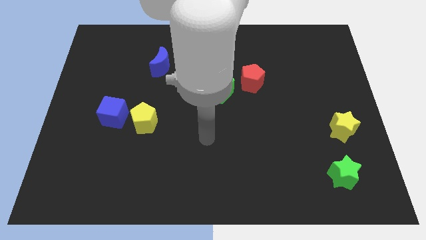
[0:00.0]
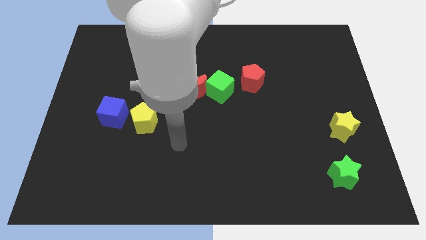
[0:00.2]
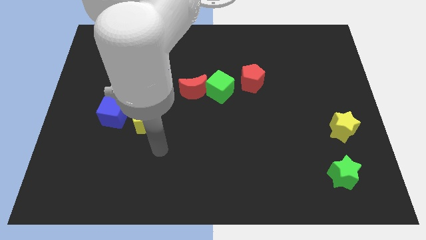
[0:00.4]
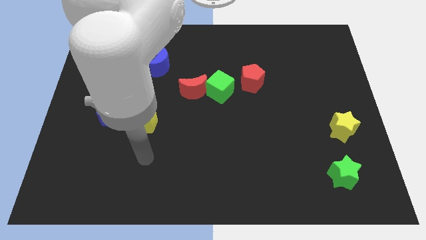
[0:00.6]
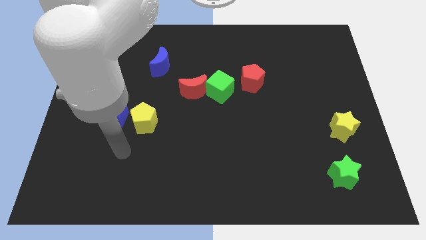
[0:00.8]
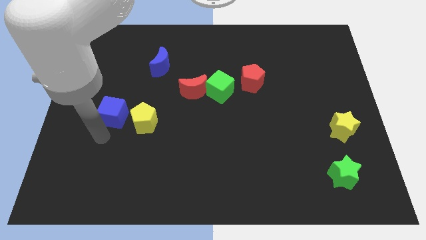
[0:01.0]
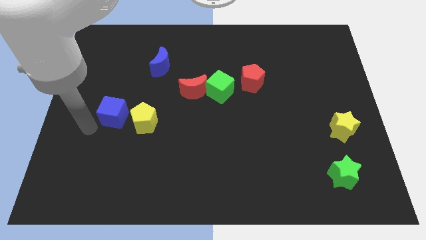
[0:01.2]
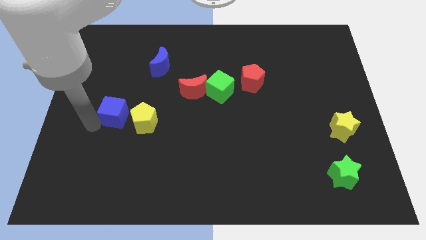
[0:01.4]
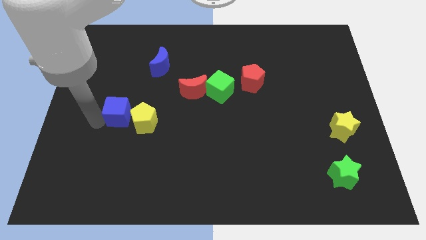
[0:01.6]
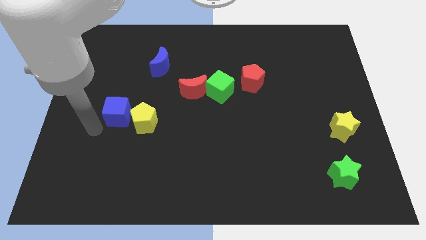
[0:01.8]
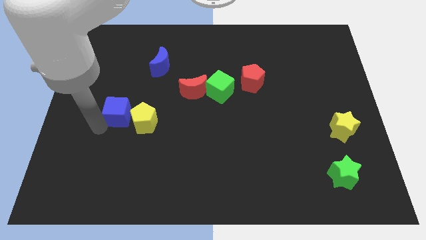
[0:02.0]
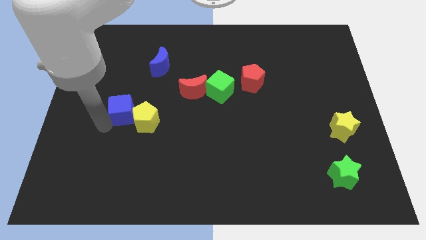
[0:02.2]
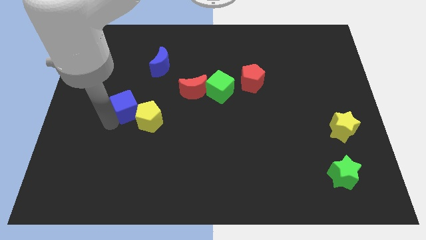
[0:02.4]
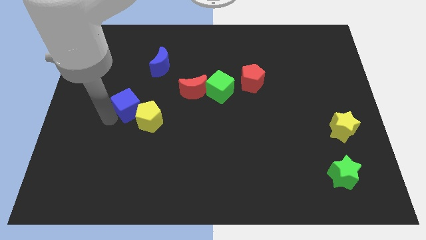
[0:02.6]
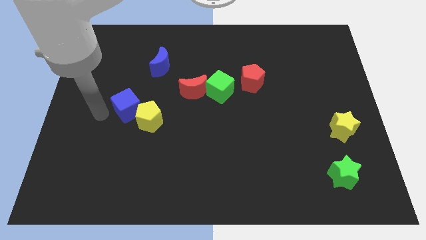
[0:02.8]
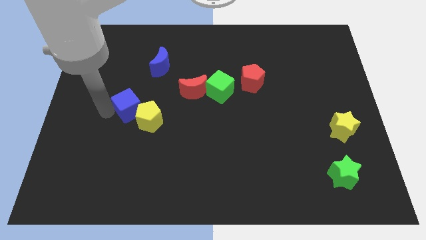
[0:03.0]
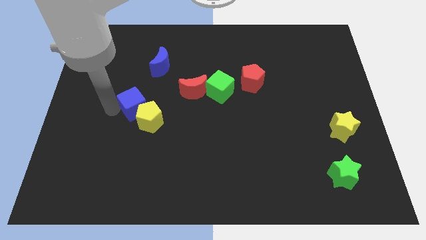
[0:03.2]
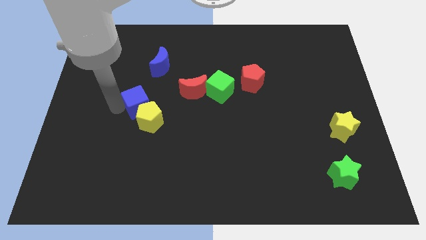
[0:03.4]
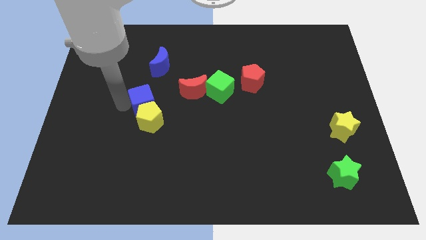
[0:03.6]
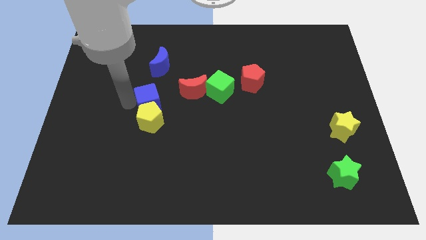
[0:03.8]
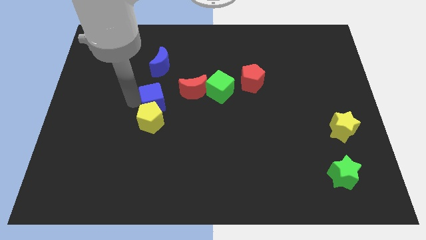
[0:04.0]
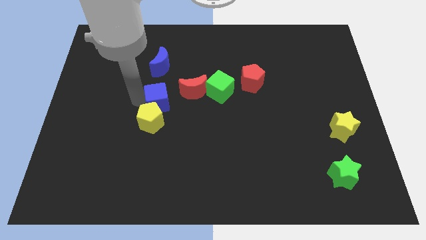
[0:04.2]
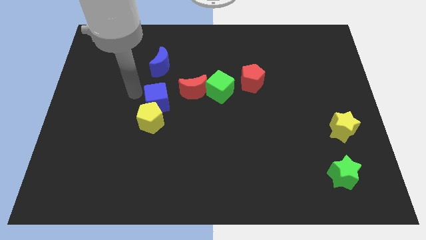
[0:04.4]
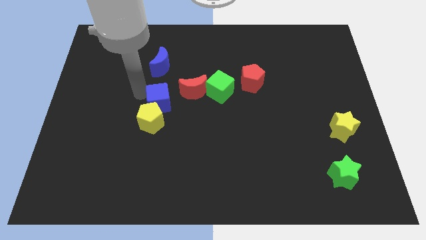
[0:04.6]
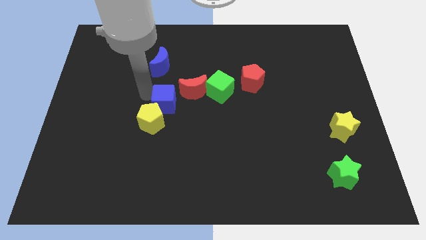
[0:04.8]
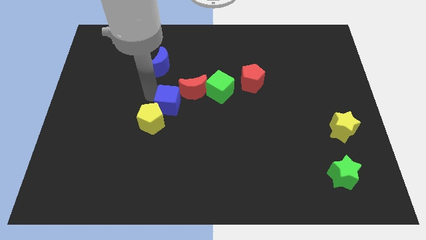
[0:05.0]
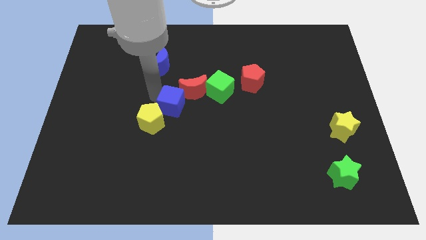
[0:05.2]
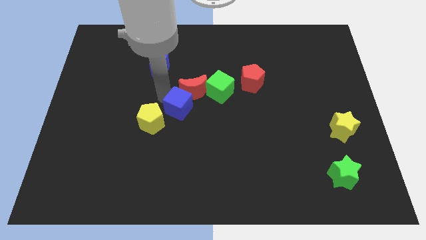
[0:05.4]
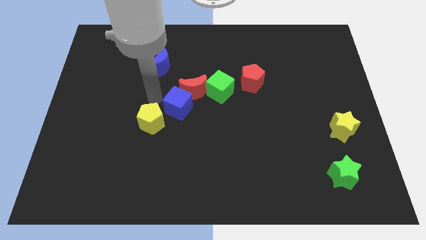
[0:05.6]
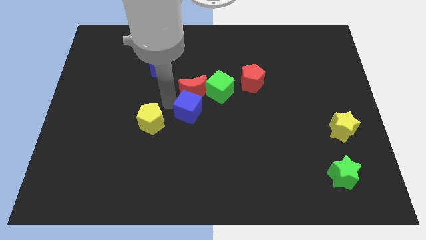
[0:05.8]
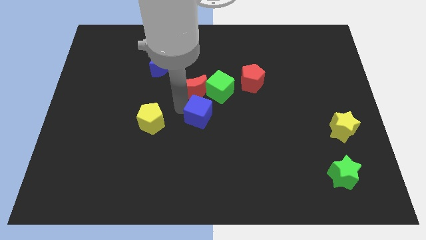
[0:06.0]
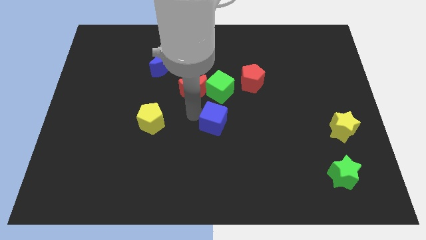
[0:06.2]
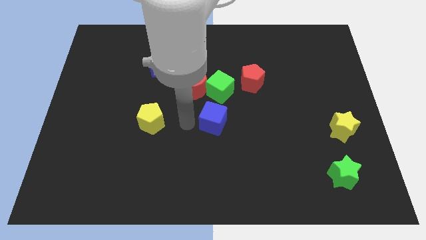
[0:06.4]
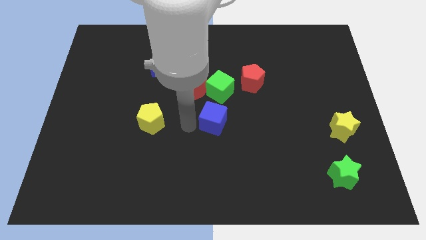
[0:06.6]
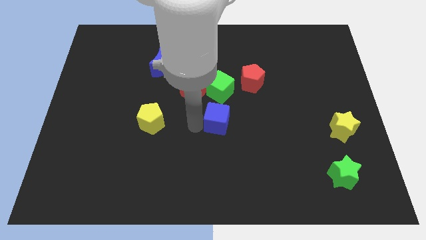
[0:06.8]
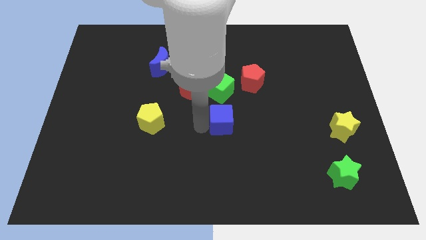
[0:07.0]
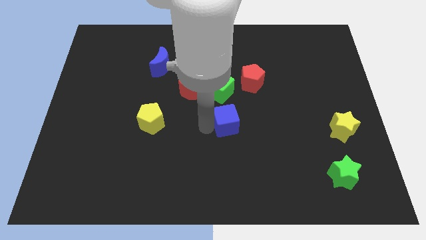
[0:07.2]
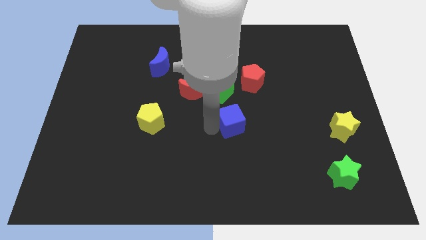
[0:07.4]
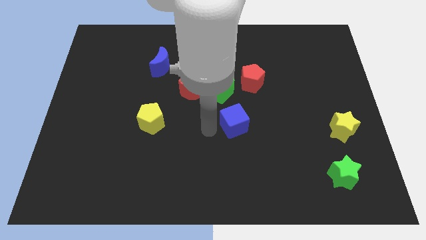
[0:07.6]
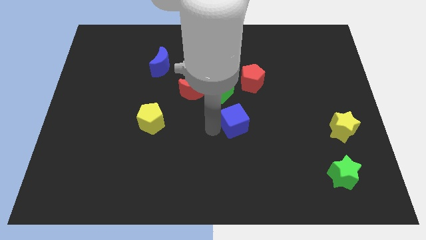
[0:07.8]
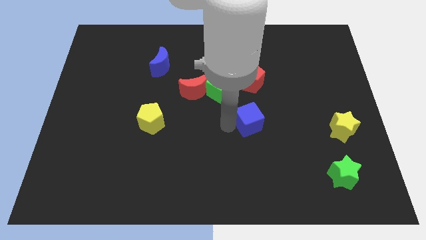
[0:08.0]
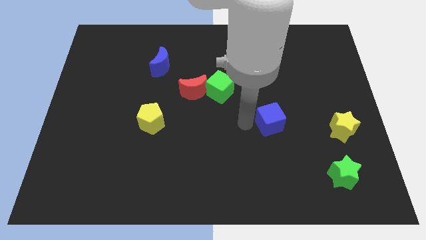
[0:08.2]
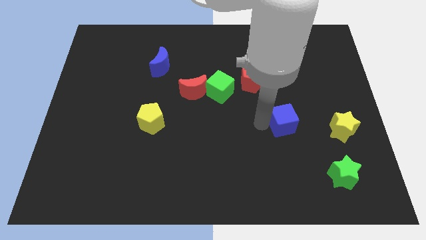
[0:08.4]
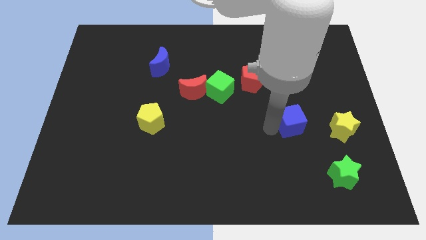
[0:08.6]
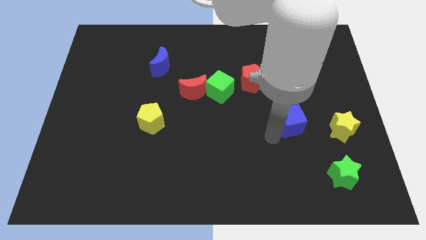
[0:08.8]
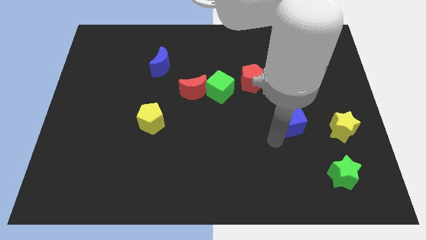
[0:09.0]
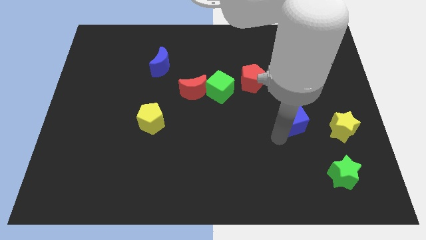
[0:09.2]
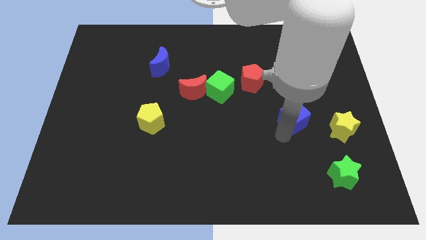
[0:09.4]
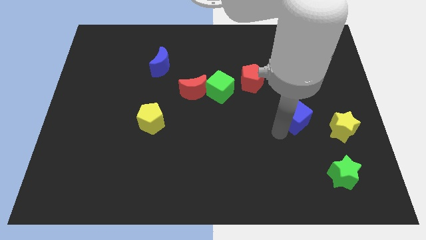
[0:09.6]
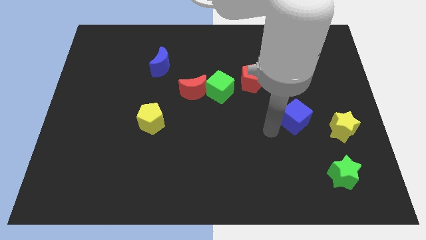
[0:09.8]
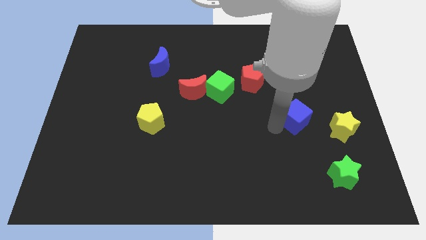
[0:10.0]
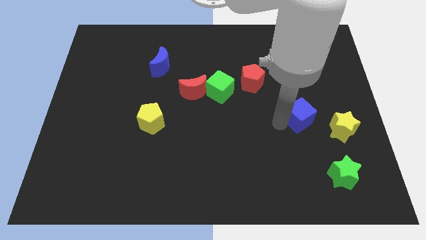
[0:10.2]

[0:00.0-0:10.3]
put the blue cube to the top left side of the yellow star

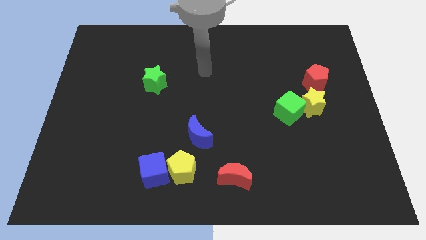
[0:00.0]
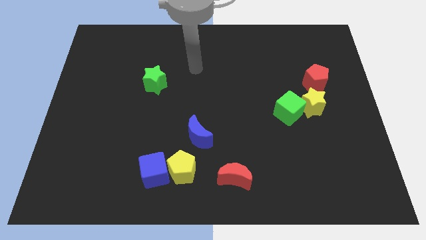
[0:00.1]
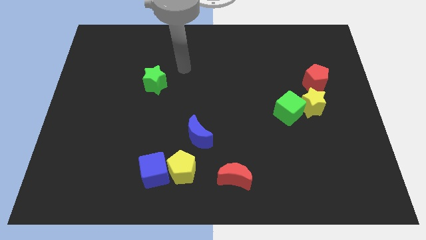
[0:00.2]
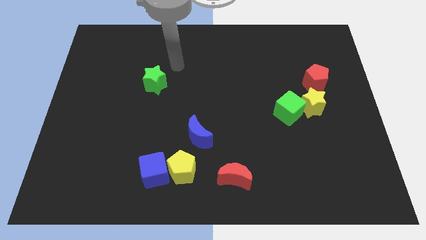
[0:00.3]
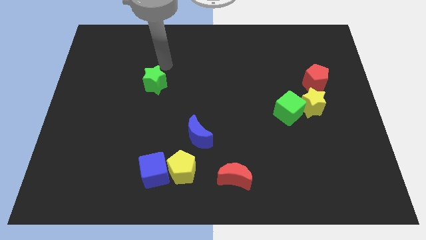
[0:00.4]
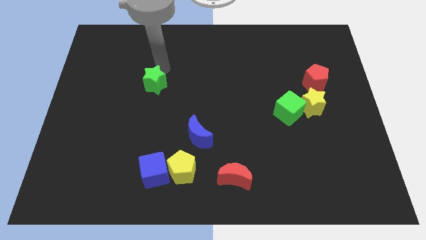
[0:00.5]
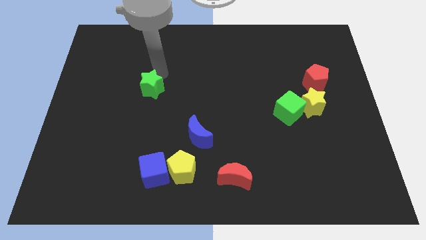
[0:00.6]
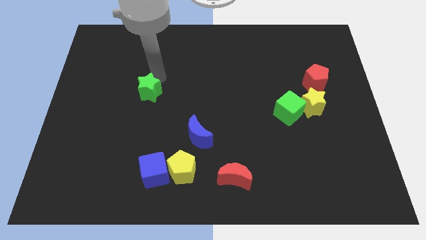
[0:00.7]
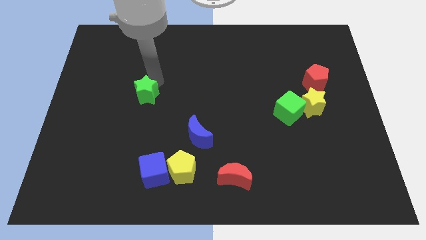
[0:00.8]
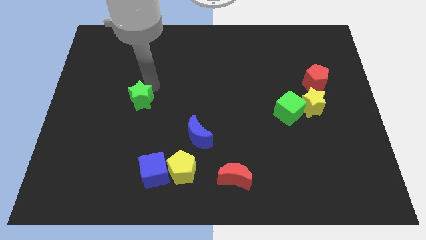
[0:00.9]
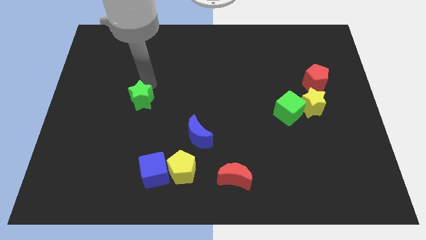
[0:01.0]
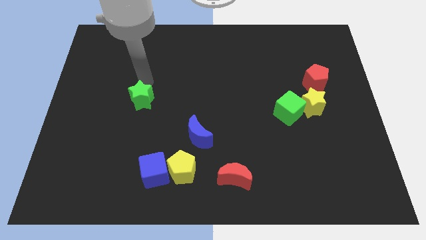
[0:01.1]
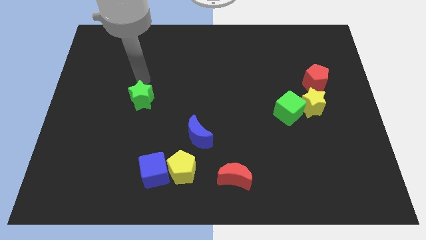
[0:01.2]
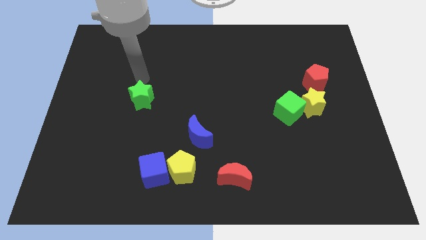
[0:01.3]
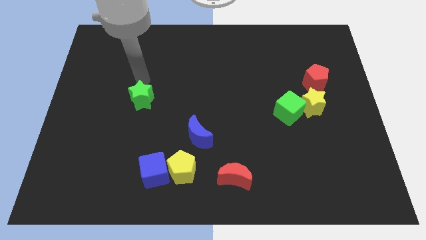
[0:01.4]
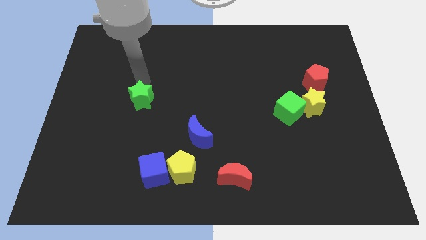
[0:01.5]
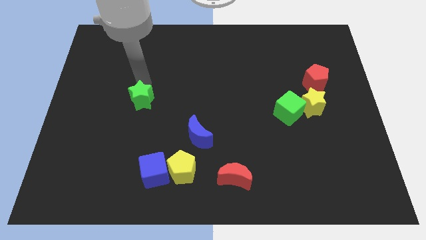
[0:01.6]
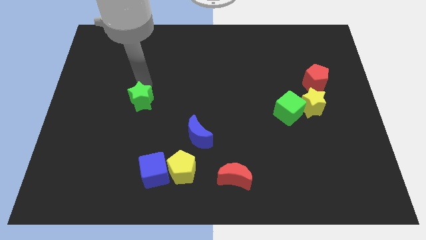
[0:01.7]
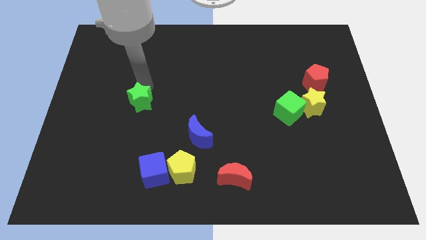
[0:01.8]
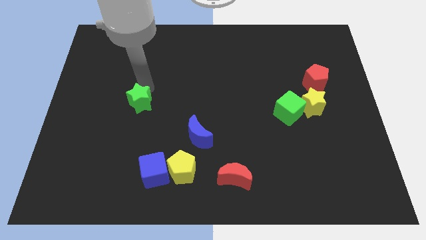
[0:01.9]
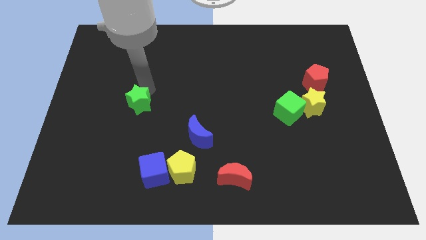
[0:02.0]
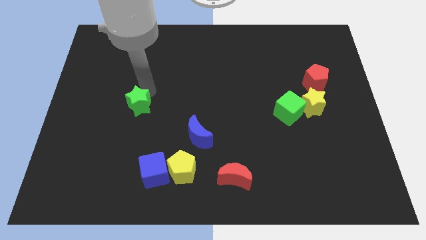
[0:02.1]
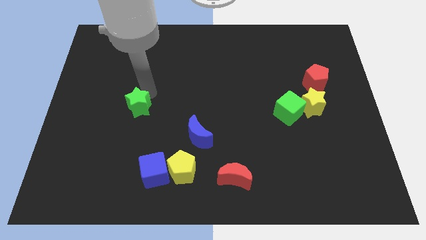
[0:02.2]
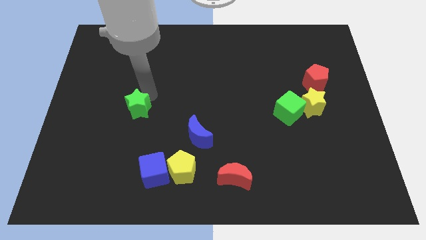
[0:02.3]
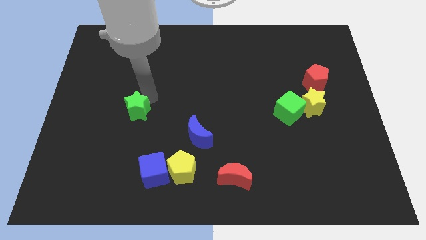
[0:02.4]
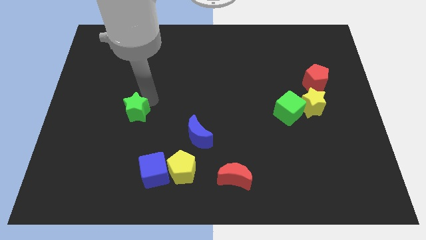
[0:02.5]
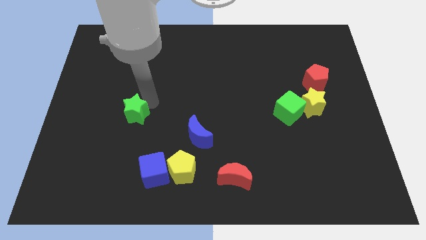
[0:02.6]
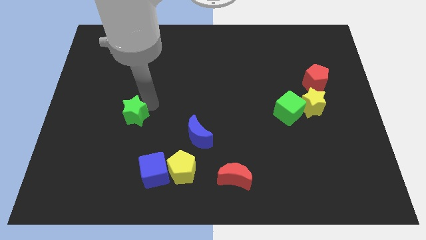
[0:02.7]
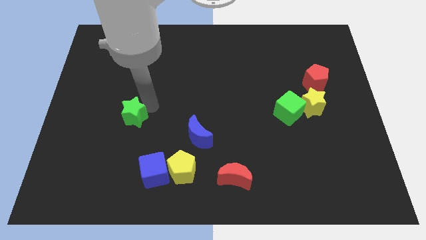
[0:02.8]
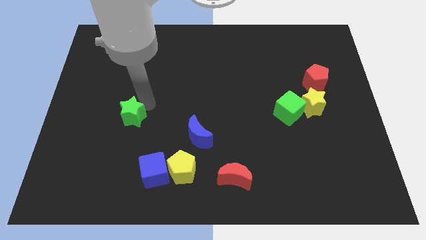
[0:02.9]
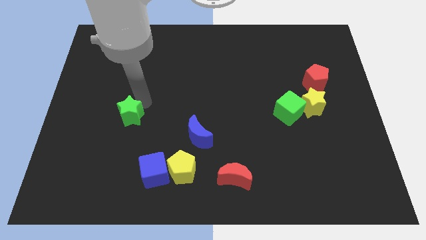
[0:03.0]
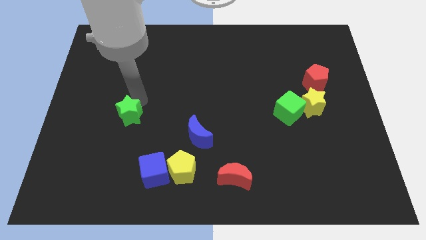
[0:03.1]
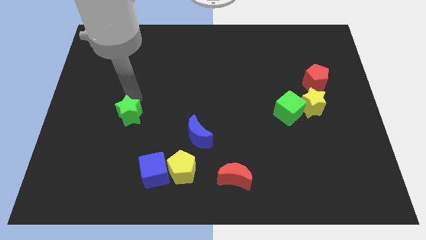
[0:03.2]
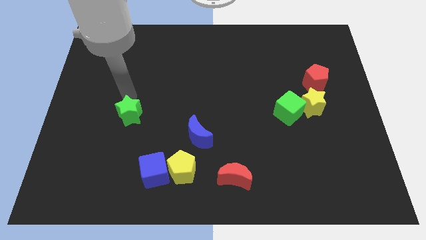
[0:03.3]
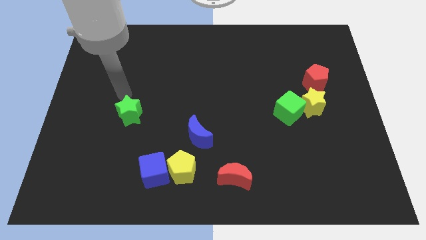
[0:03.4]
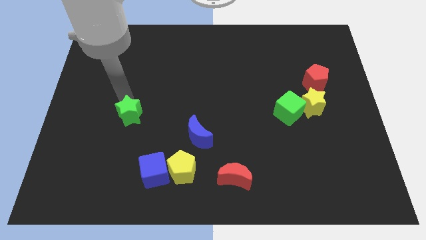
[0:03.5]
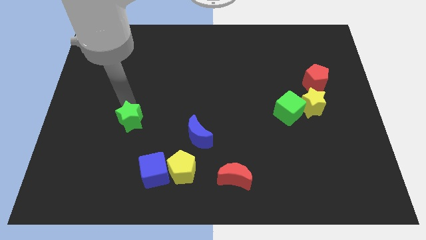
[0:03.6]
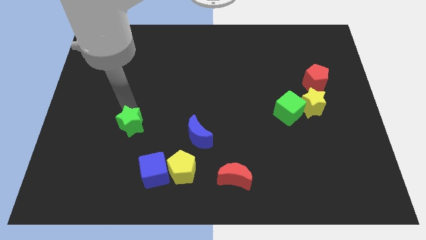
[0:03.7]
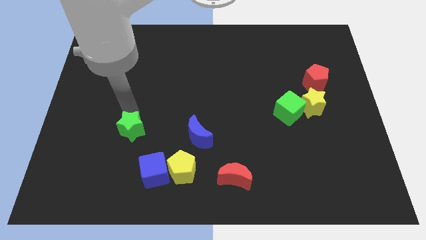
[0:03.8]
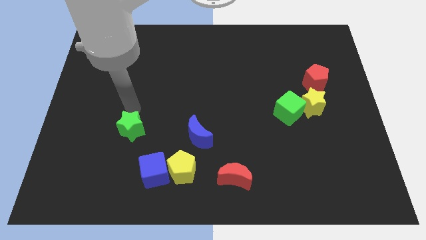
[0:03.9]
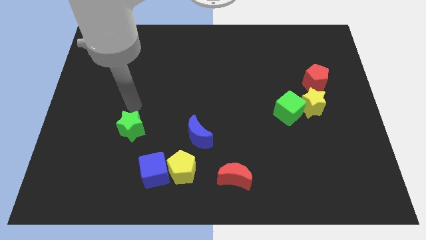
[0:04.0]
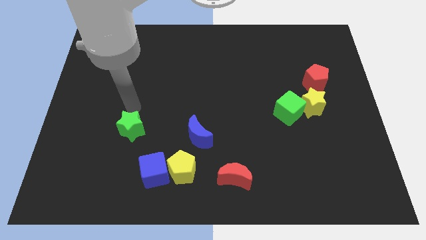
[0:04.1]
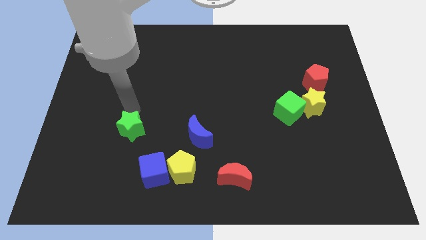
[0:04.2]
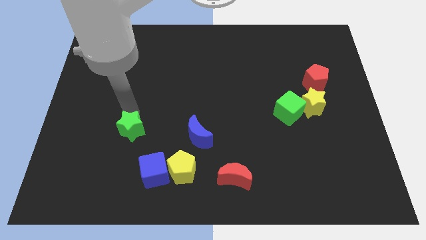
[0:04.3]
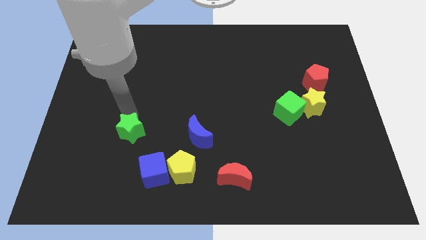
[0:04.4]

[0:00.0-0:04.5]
slide the green star diagonally up and to the left of the blue cube
